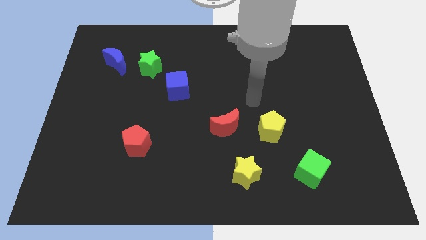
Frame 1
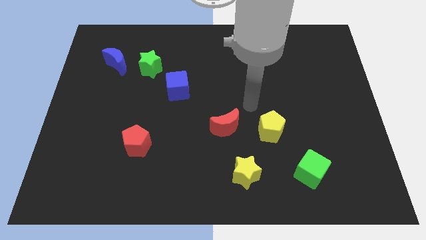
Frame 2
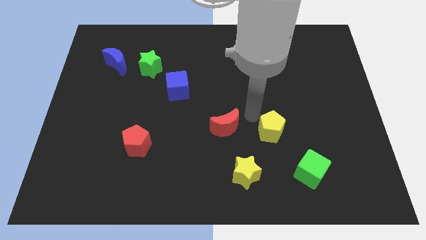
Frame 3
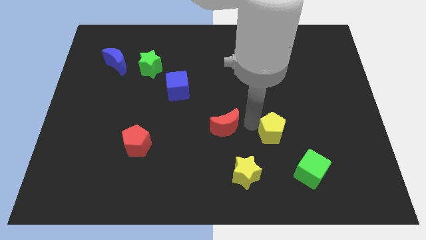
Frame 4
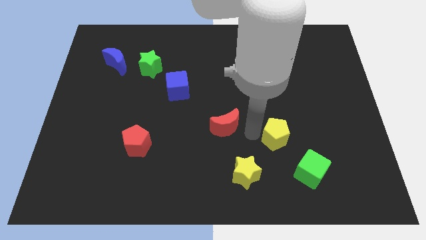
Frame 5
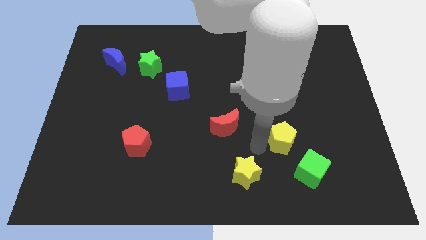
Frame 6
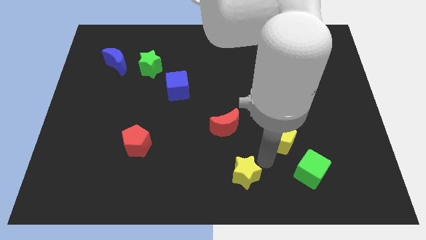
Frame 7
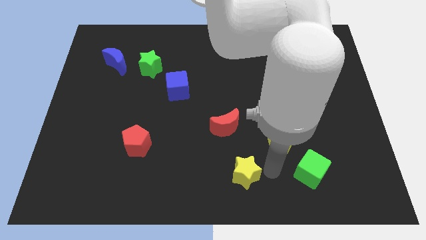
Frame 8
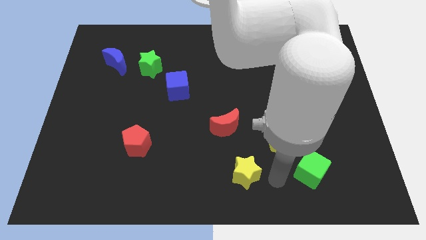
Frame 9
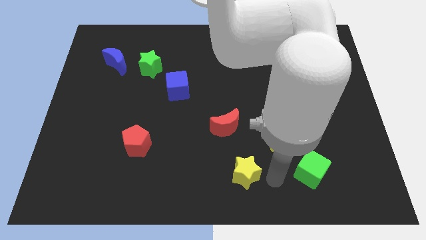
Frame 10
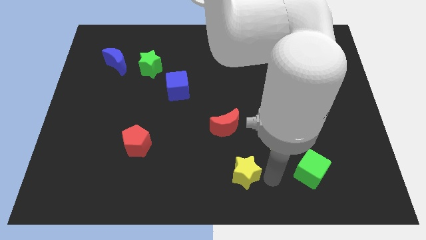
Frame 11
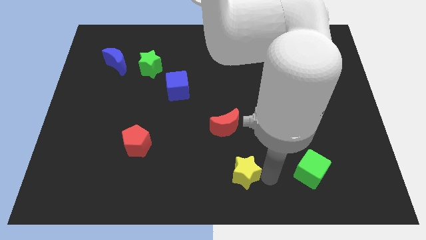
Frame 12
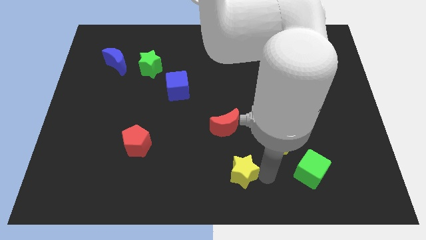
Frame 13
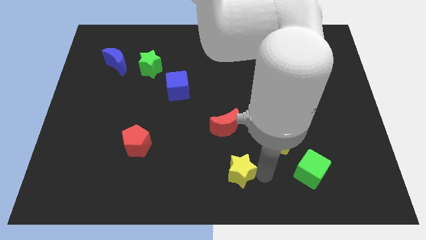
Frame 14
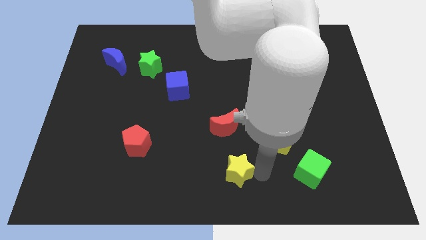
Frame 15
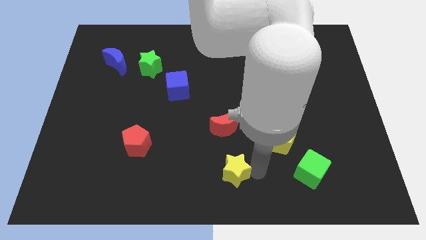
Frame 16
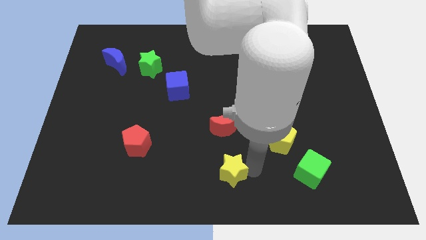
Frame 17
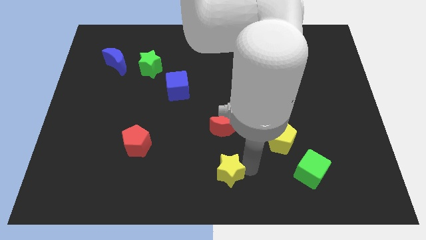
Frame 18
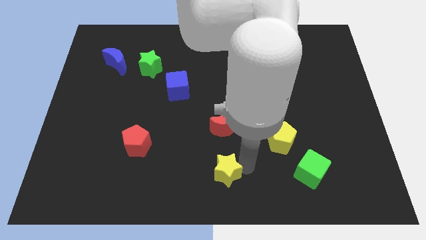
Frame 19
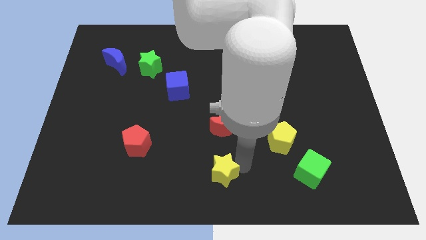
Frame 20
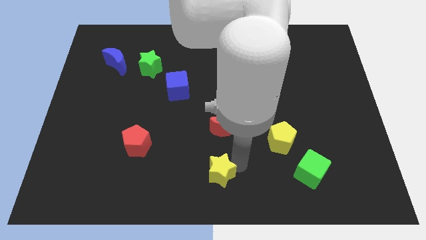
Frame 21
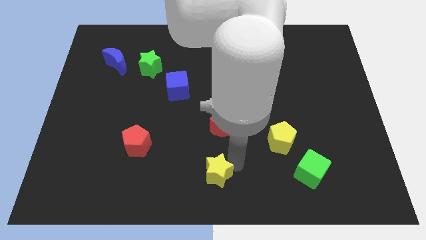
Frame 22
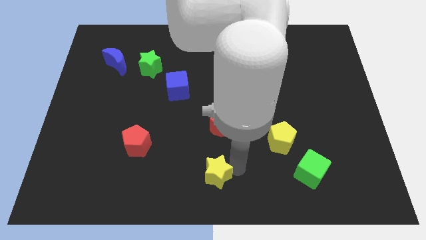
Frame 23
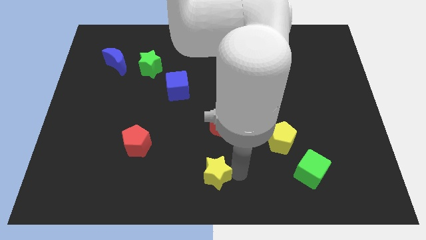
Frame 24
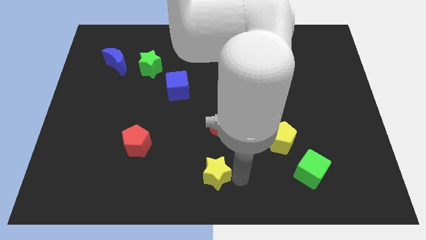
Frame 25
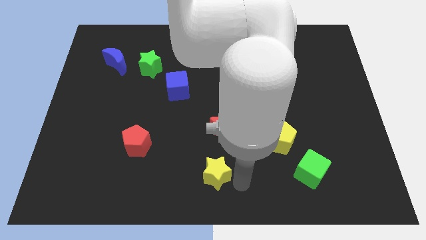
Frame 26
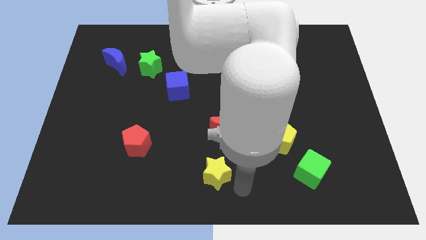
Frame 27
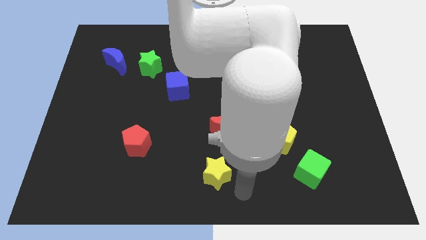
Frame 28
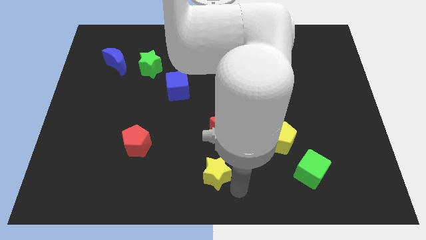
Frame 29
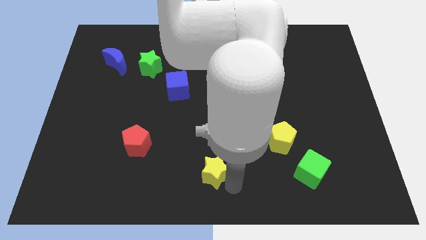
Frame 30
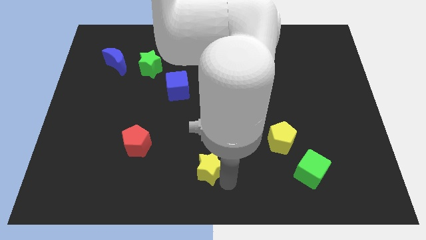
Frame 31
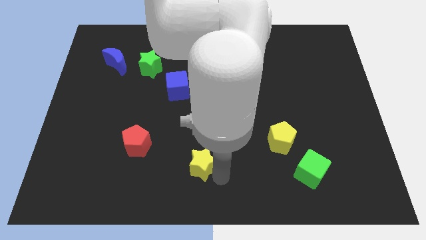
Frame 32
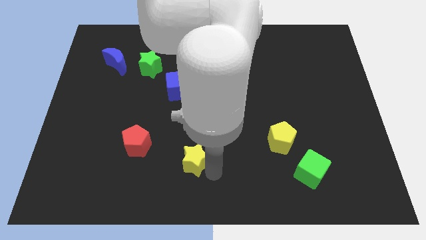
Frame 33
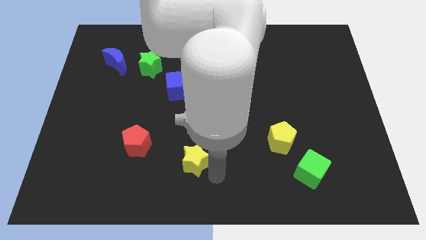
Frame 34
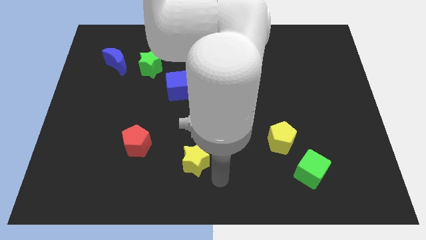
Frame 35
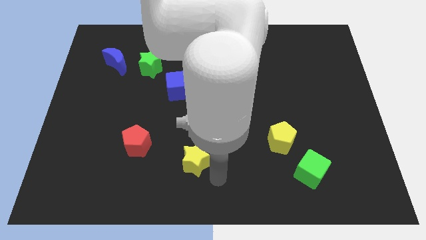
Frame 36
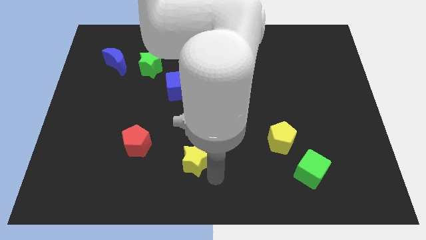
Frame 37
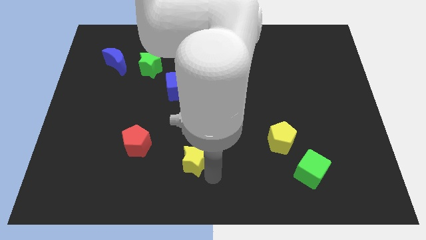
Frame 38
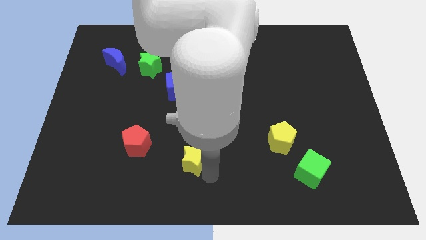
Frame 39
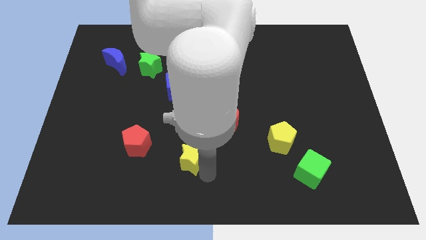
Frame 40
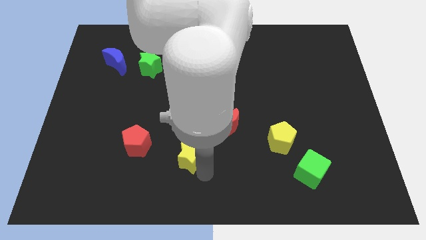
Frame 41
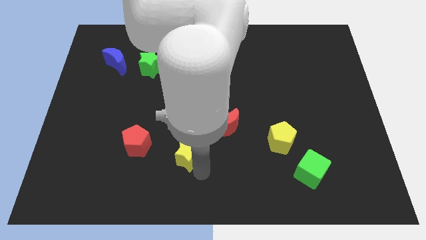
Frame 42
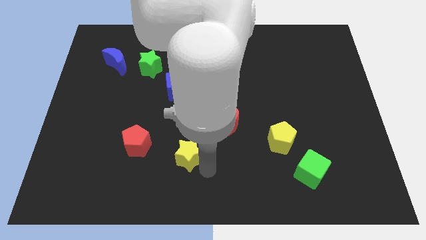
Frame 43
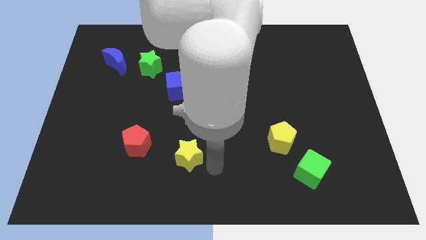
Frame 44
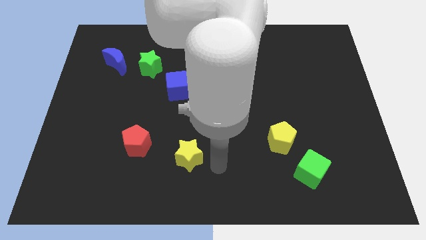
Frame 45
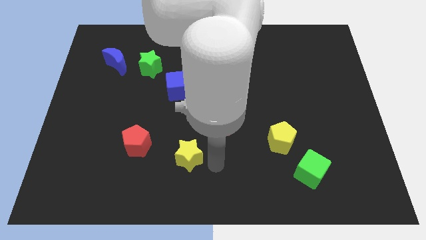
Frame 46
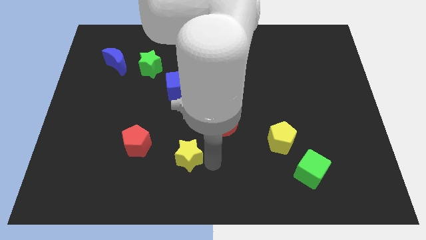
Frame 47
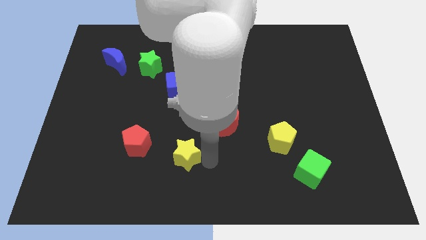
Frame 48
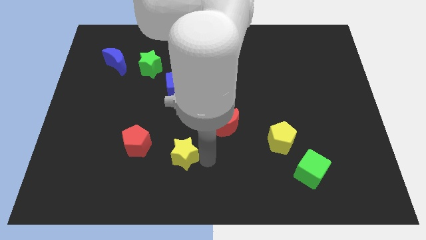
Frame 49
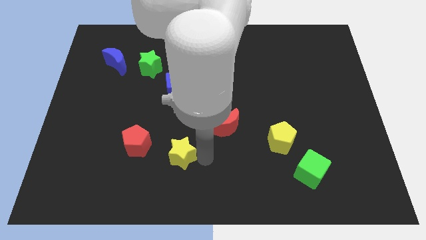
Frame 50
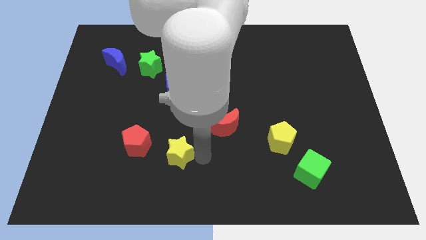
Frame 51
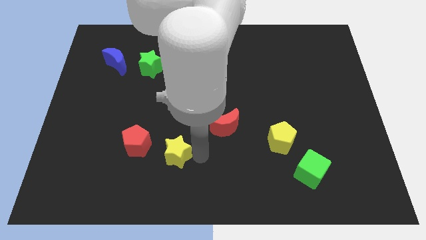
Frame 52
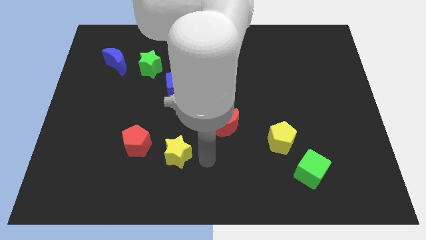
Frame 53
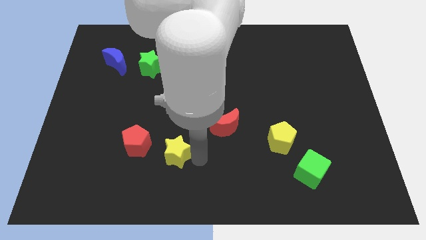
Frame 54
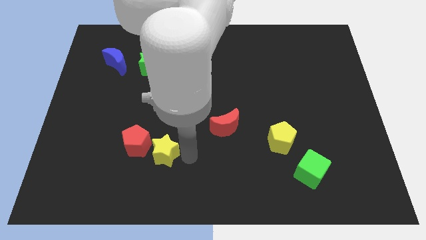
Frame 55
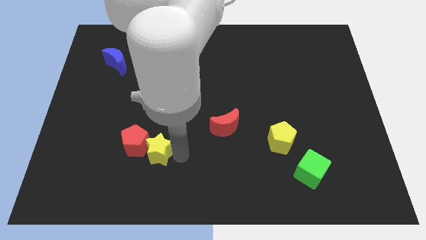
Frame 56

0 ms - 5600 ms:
move the yellow star towards the red pentagon

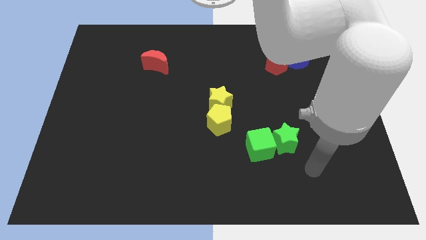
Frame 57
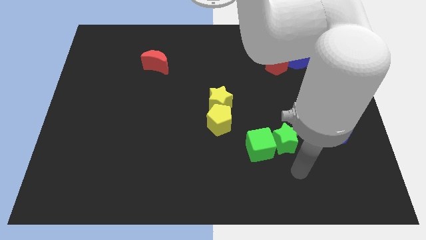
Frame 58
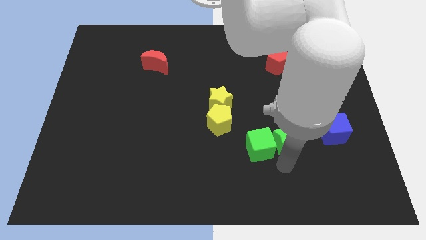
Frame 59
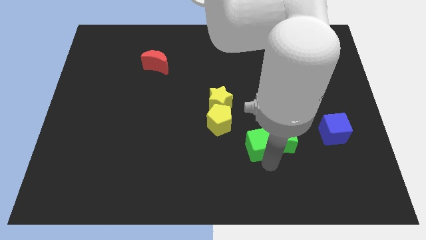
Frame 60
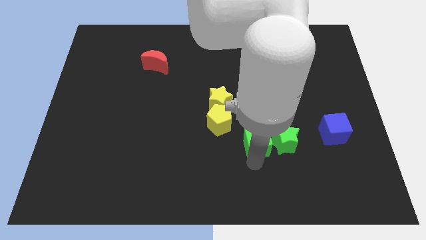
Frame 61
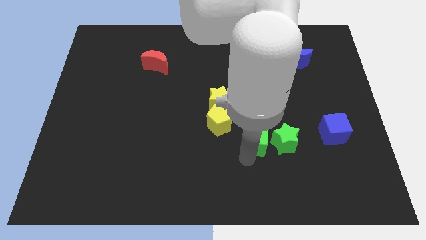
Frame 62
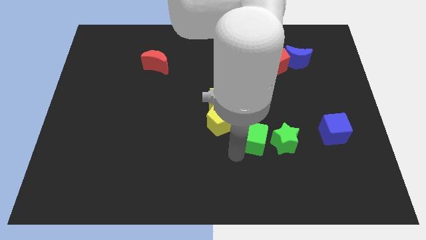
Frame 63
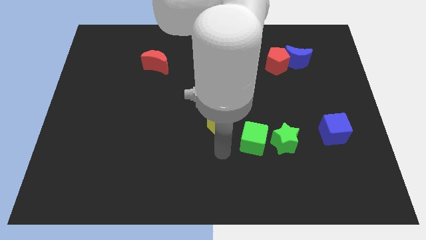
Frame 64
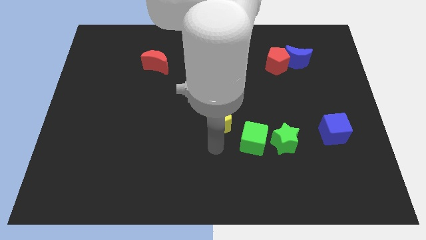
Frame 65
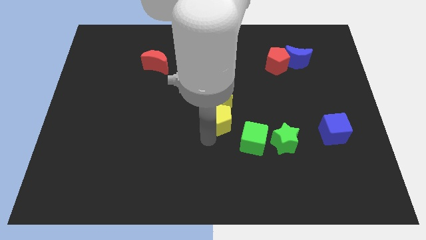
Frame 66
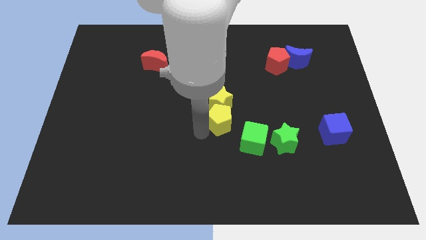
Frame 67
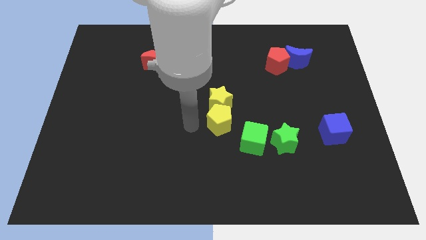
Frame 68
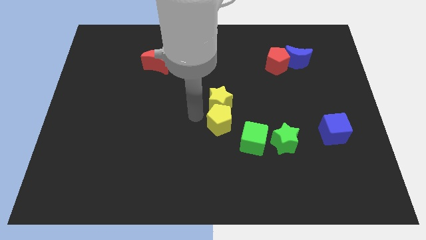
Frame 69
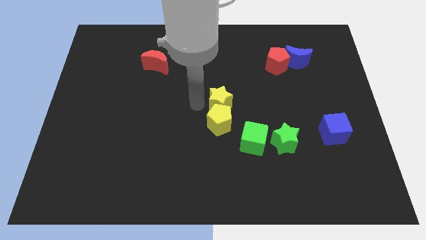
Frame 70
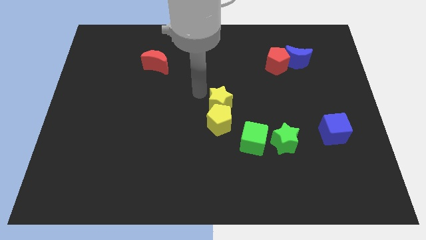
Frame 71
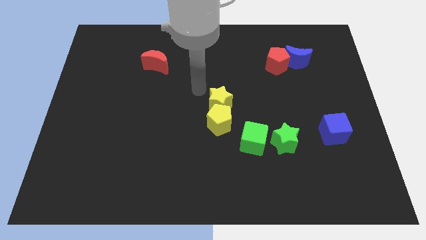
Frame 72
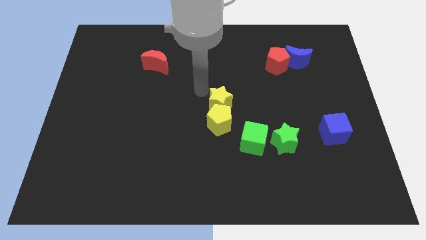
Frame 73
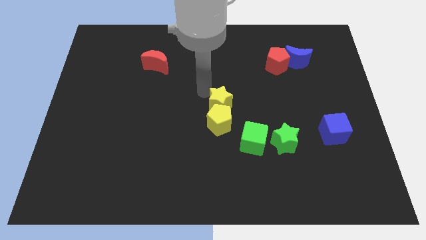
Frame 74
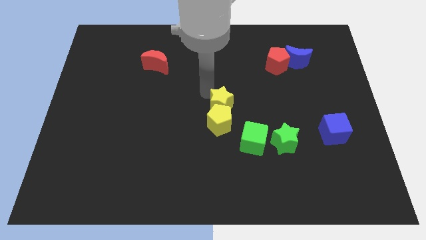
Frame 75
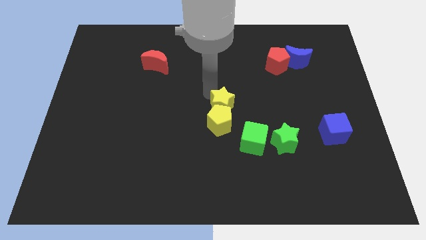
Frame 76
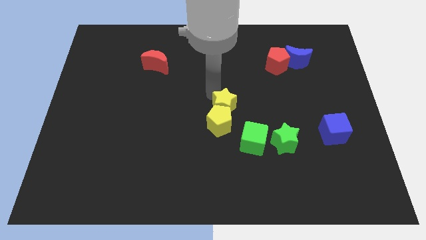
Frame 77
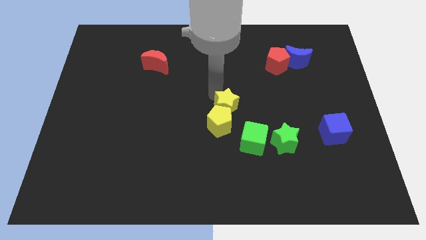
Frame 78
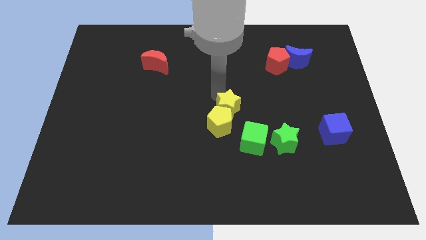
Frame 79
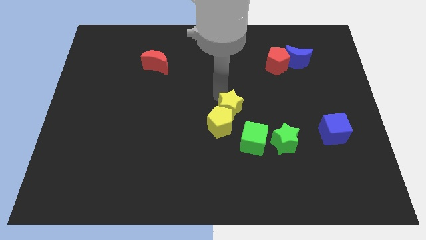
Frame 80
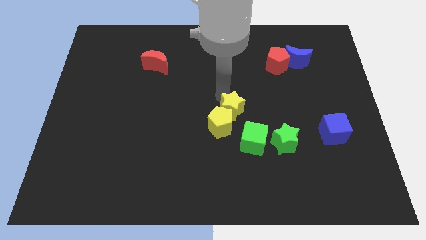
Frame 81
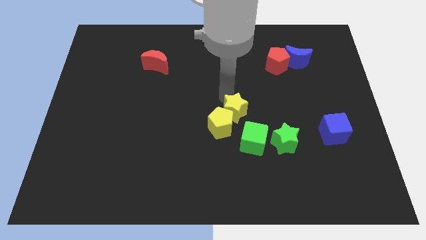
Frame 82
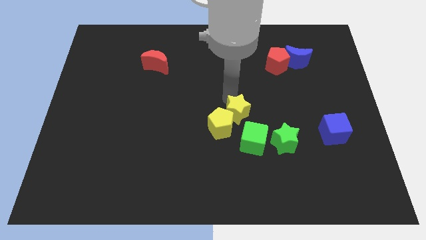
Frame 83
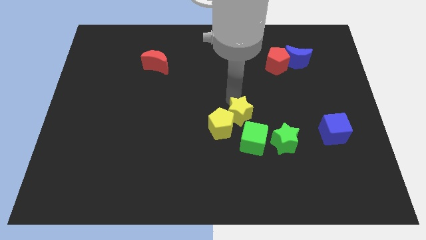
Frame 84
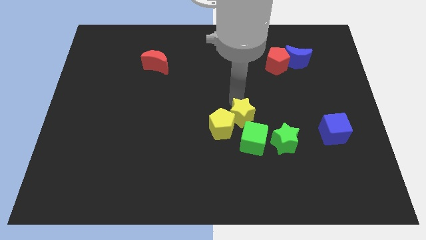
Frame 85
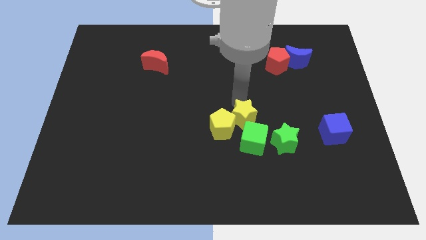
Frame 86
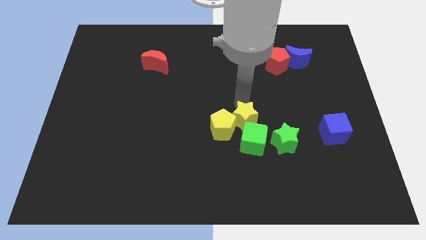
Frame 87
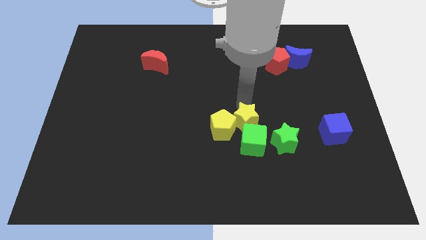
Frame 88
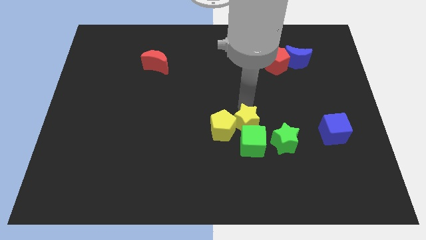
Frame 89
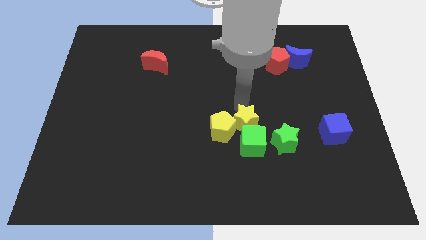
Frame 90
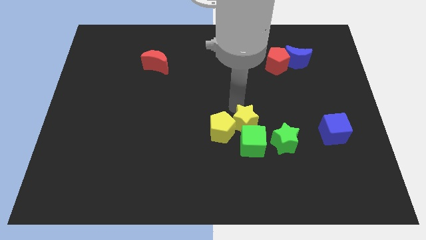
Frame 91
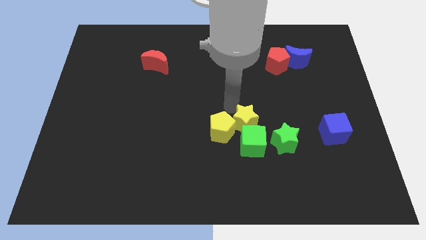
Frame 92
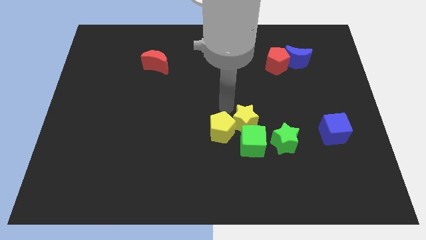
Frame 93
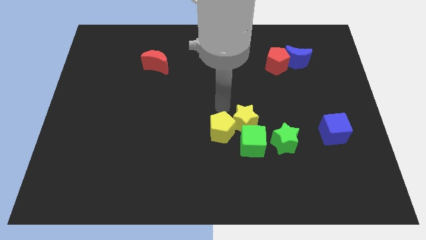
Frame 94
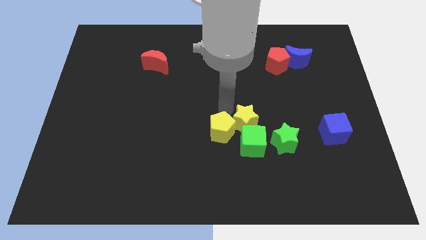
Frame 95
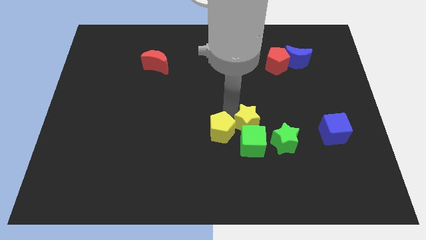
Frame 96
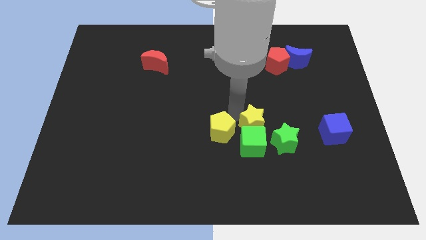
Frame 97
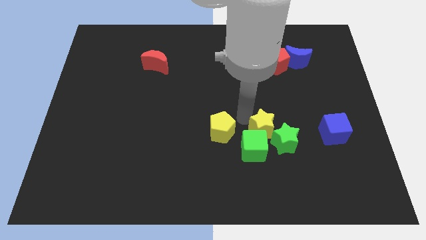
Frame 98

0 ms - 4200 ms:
push the yellow star close to the green star
